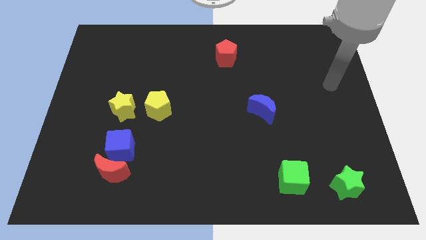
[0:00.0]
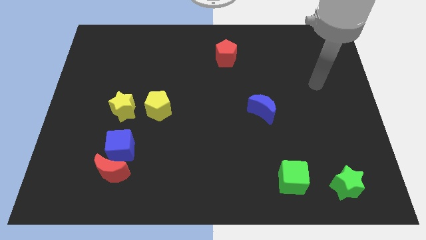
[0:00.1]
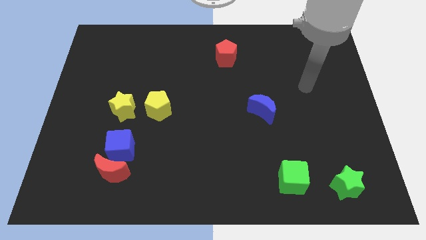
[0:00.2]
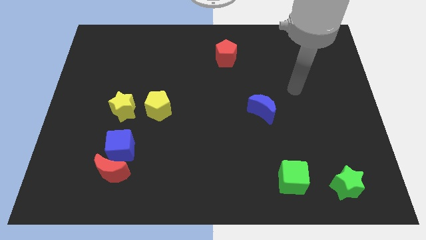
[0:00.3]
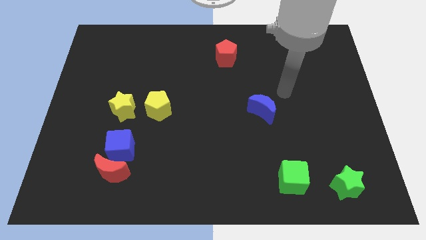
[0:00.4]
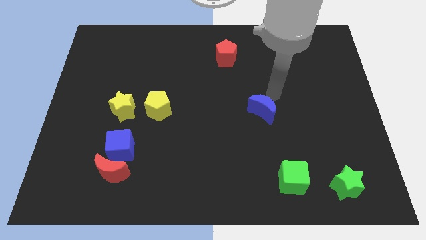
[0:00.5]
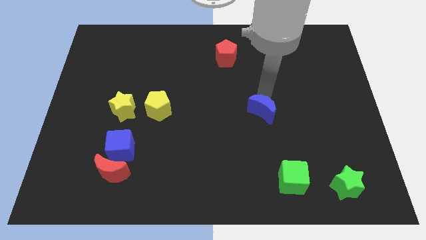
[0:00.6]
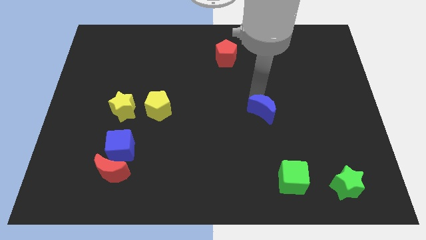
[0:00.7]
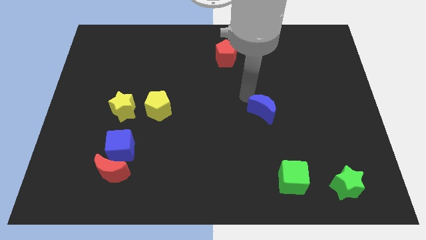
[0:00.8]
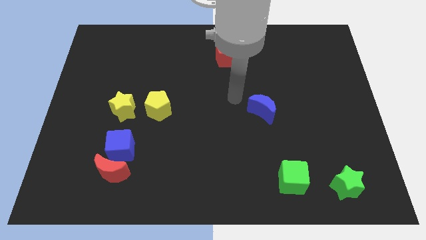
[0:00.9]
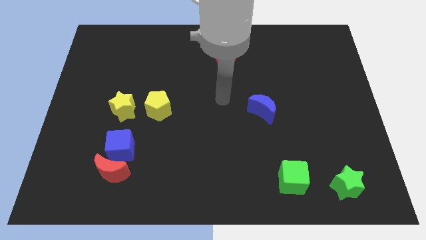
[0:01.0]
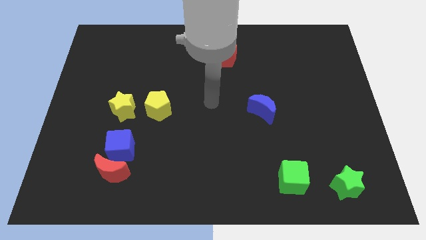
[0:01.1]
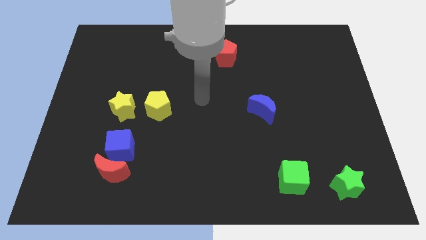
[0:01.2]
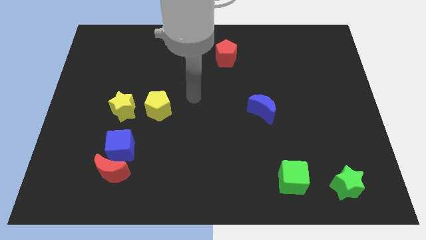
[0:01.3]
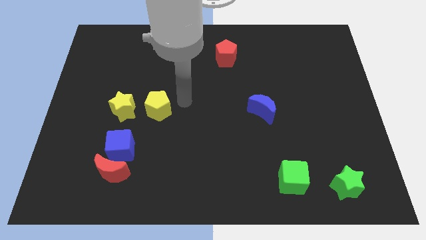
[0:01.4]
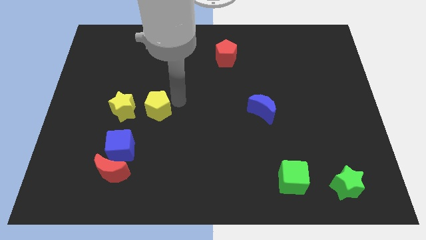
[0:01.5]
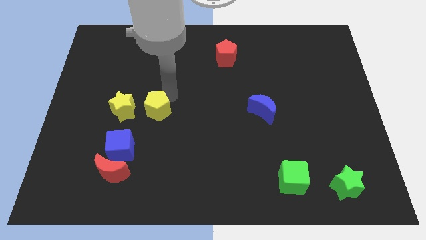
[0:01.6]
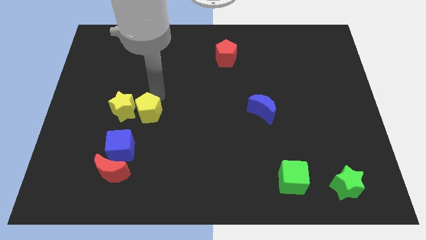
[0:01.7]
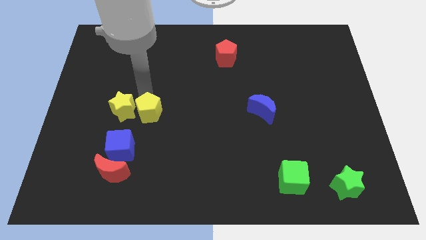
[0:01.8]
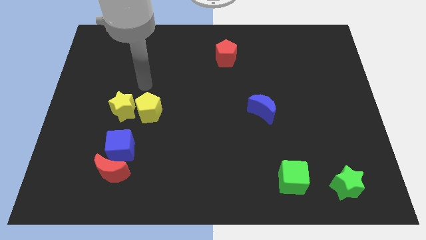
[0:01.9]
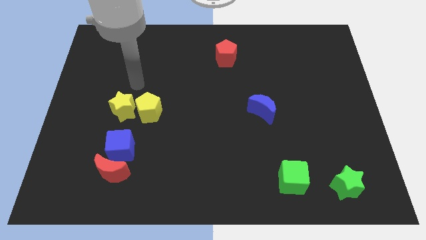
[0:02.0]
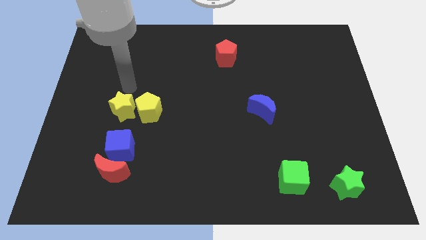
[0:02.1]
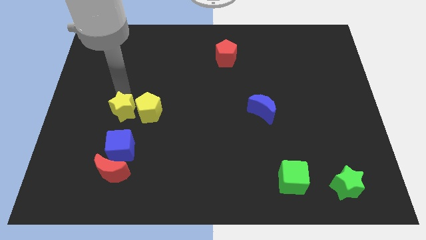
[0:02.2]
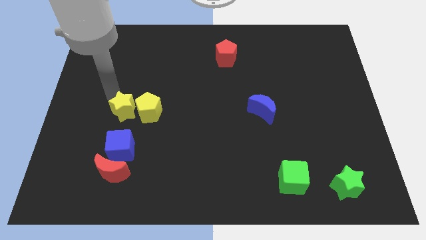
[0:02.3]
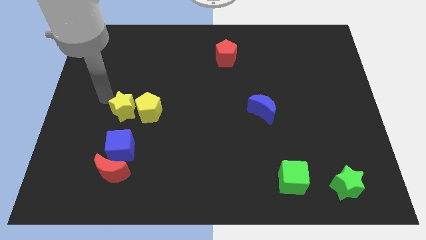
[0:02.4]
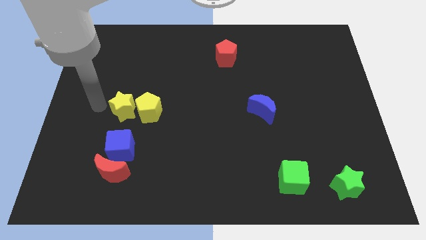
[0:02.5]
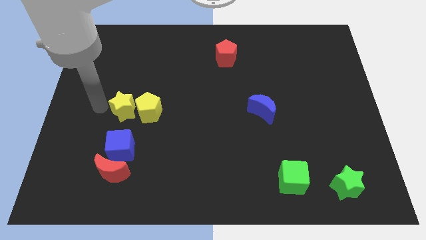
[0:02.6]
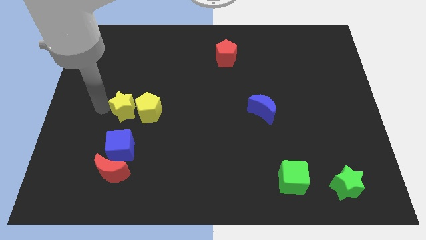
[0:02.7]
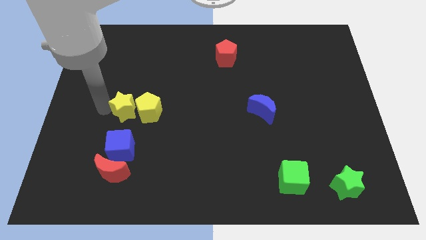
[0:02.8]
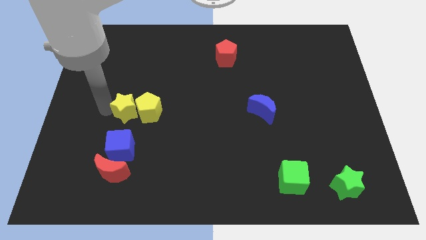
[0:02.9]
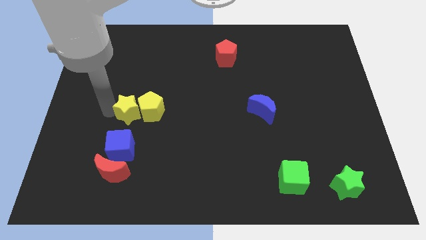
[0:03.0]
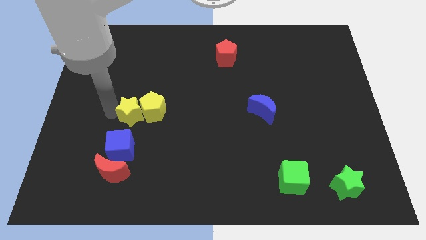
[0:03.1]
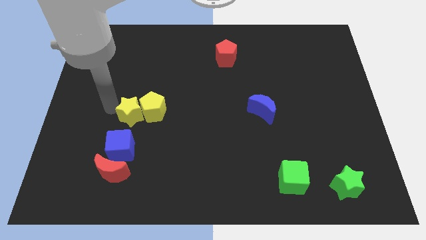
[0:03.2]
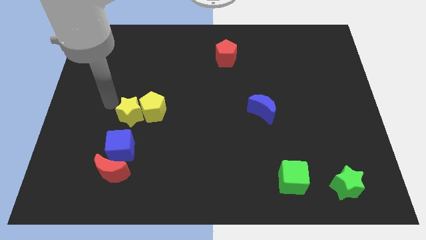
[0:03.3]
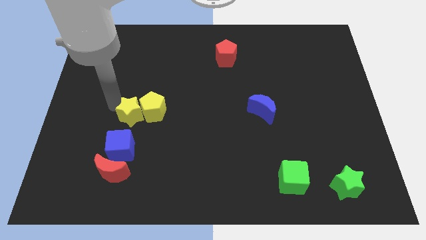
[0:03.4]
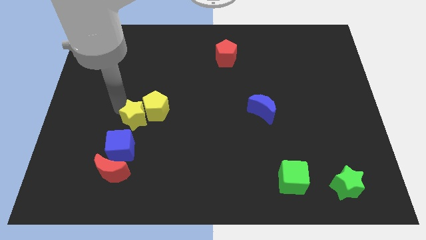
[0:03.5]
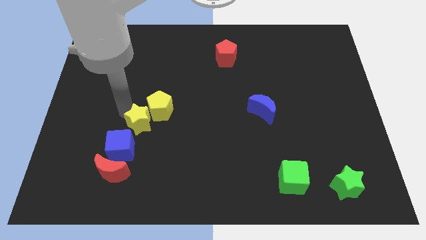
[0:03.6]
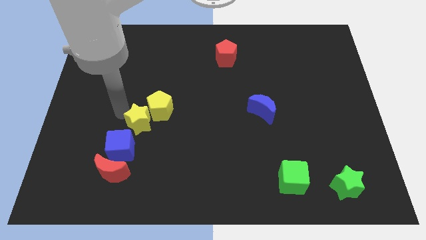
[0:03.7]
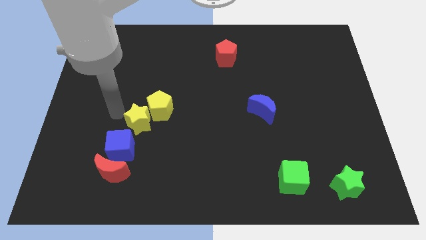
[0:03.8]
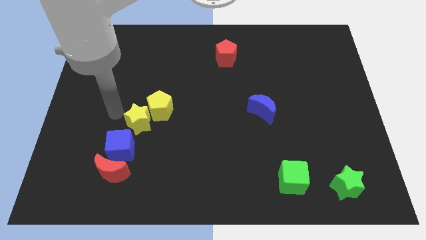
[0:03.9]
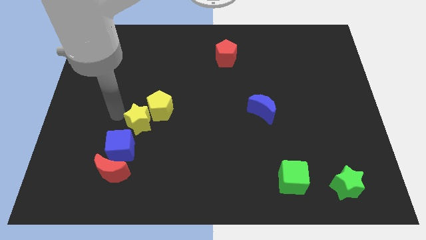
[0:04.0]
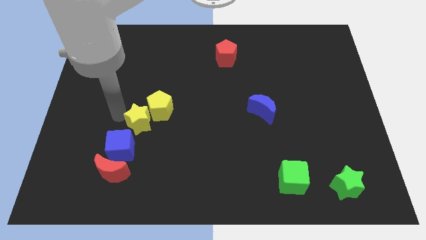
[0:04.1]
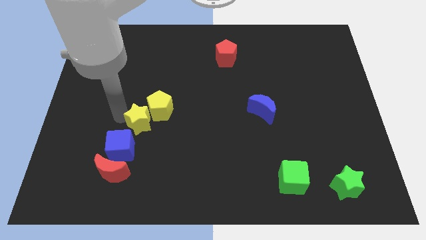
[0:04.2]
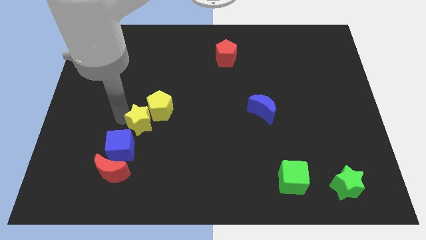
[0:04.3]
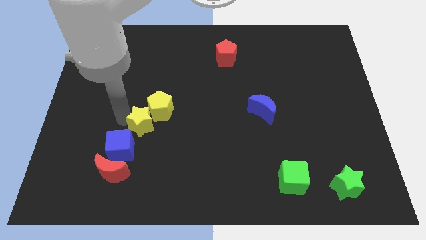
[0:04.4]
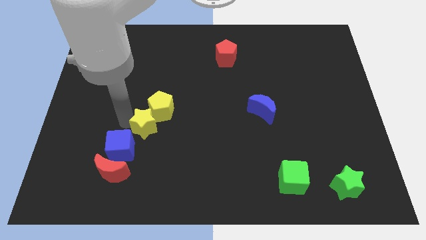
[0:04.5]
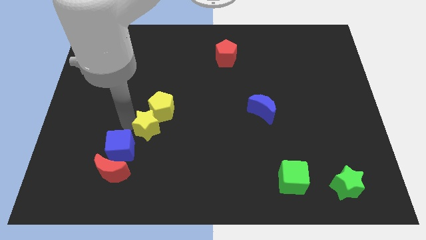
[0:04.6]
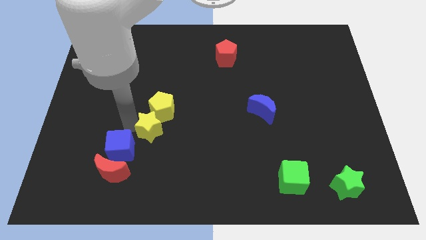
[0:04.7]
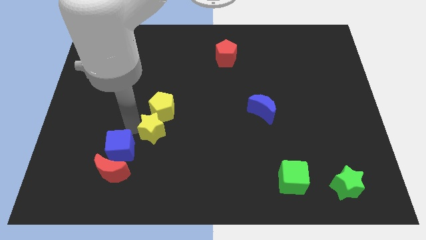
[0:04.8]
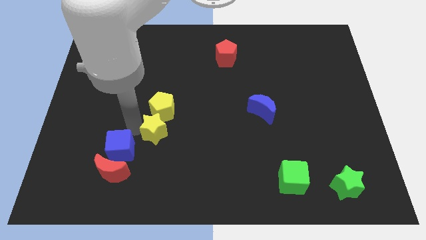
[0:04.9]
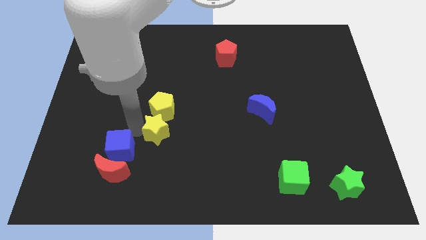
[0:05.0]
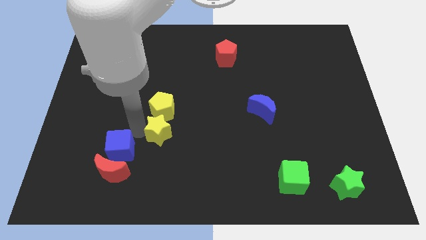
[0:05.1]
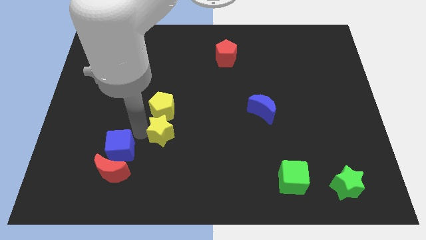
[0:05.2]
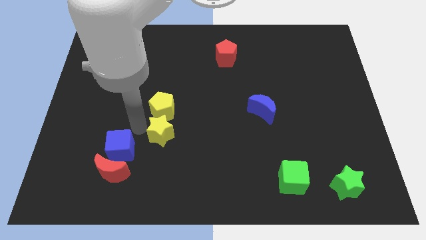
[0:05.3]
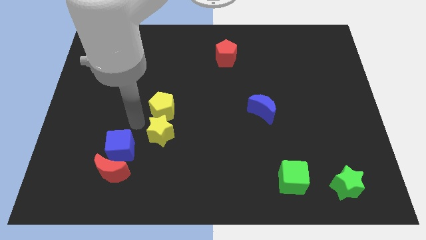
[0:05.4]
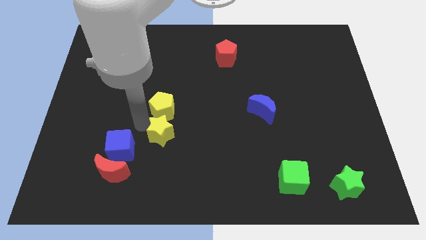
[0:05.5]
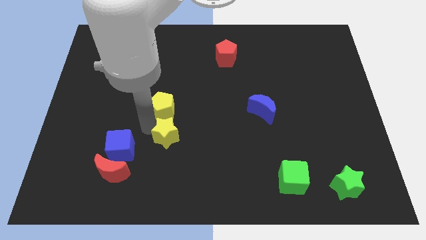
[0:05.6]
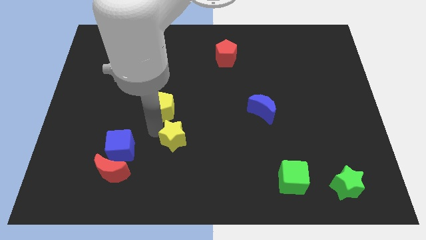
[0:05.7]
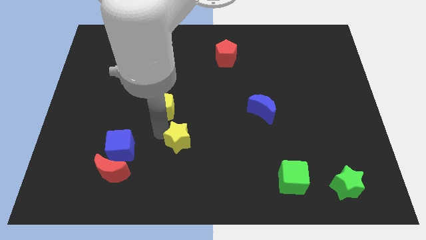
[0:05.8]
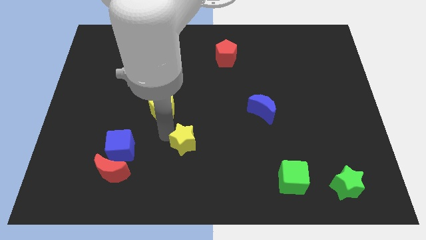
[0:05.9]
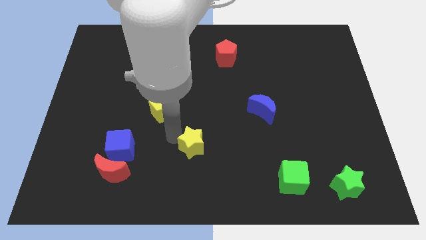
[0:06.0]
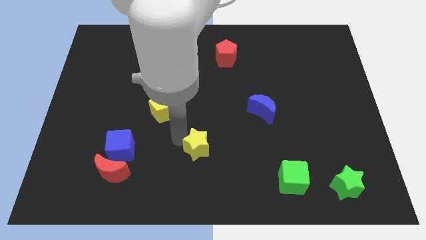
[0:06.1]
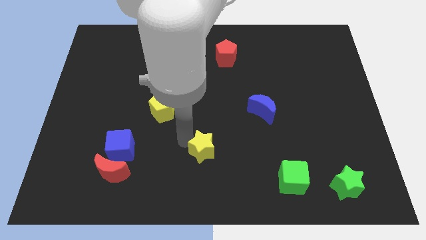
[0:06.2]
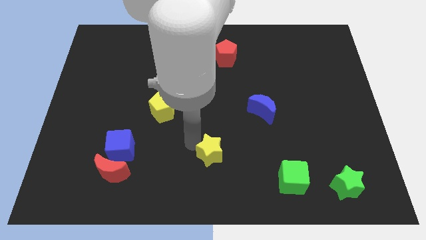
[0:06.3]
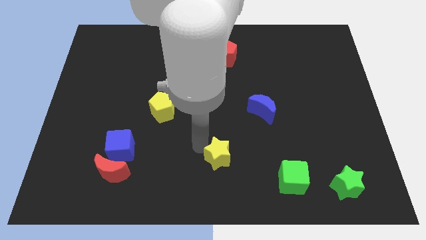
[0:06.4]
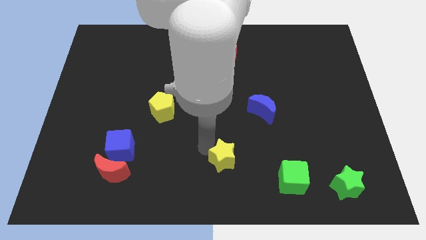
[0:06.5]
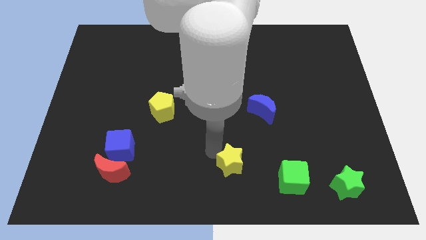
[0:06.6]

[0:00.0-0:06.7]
push the yellow star just left of the green cube

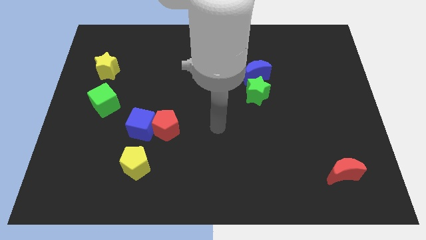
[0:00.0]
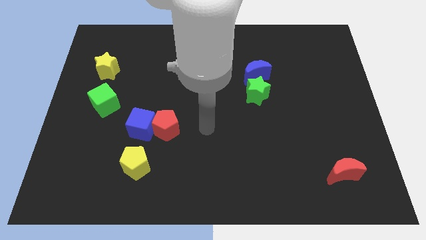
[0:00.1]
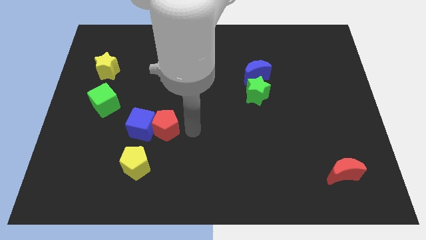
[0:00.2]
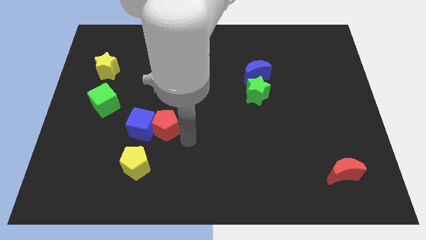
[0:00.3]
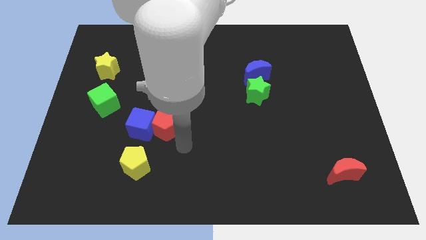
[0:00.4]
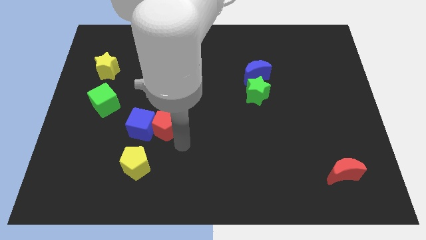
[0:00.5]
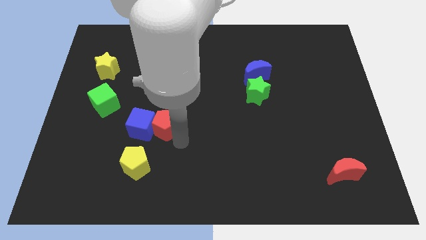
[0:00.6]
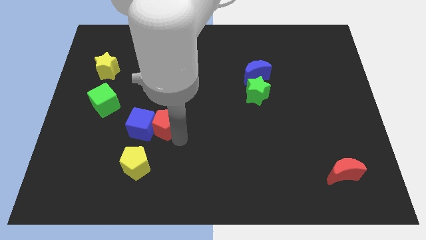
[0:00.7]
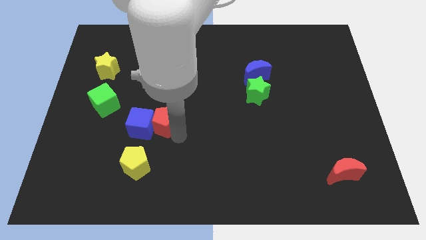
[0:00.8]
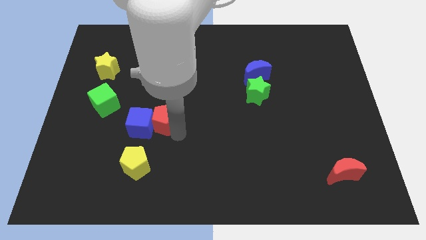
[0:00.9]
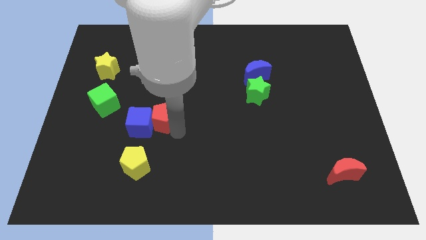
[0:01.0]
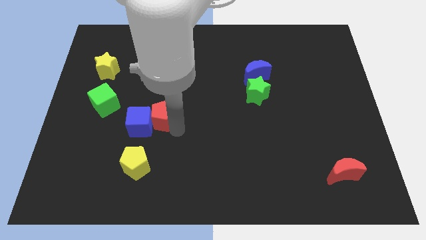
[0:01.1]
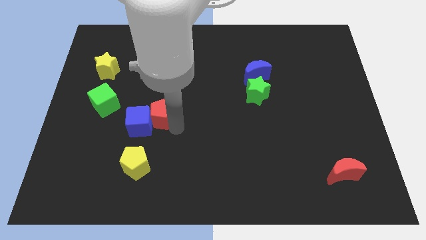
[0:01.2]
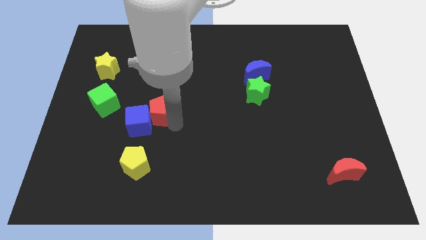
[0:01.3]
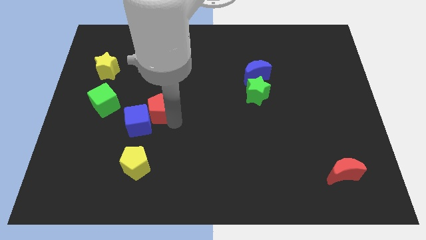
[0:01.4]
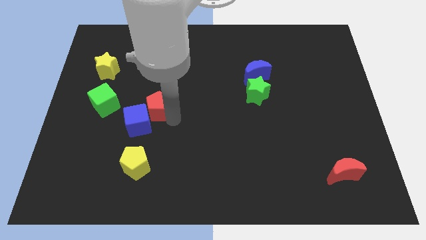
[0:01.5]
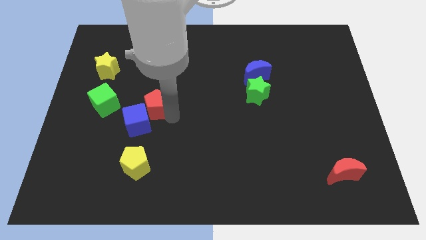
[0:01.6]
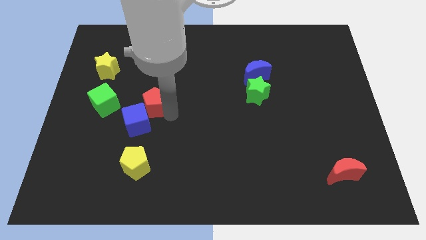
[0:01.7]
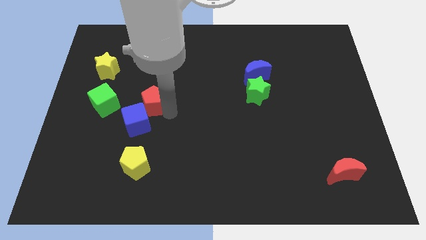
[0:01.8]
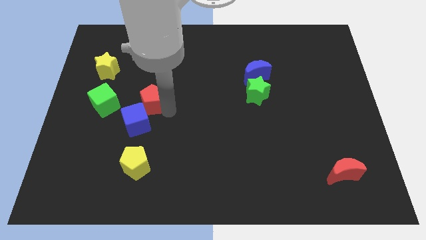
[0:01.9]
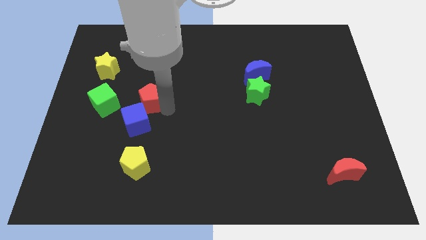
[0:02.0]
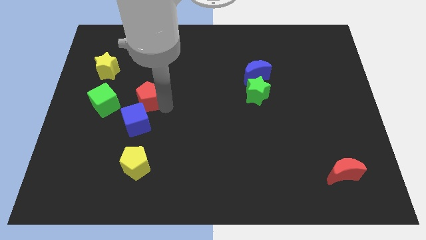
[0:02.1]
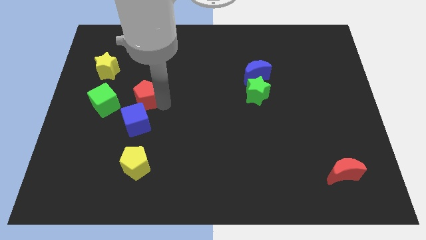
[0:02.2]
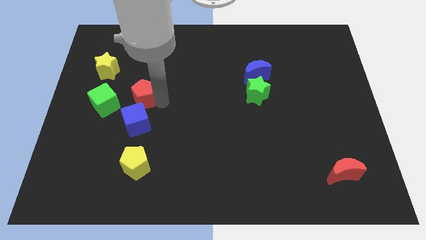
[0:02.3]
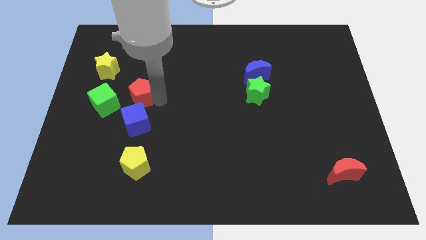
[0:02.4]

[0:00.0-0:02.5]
put the red pentagon to the bottom right of the yellow star
